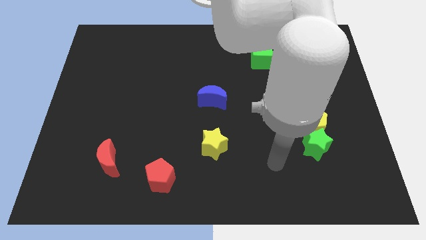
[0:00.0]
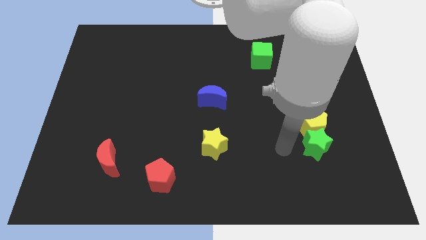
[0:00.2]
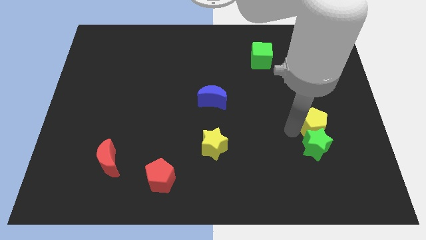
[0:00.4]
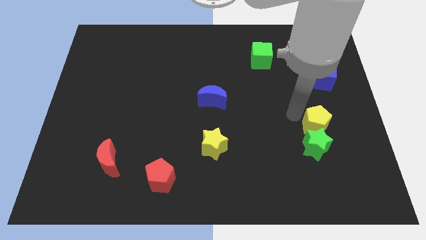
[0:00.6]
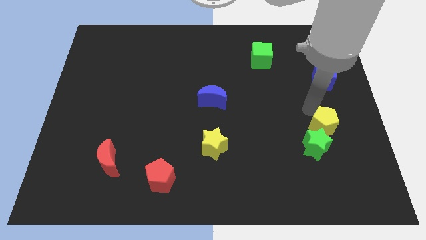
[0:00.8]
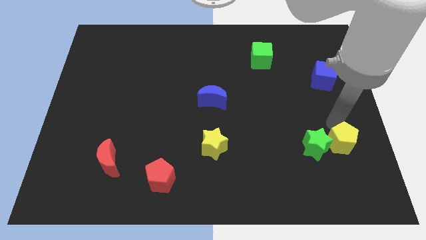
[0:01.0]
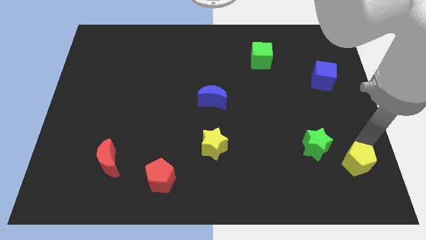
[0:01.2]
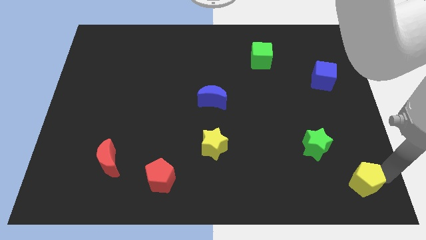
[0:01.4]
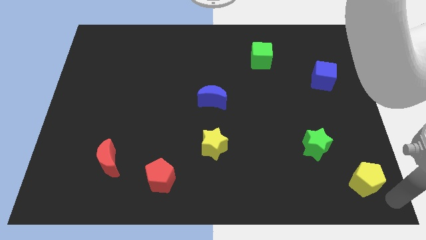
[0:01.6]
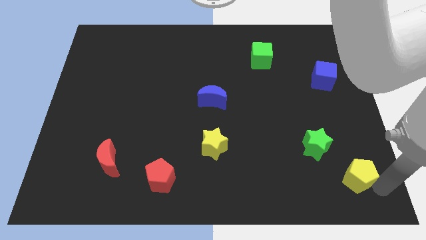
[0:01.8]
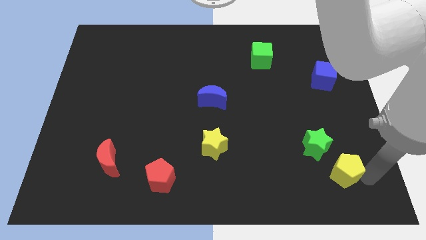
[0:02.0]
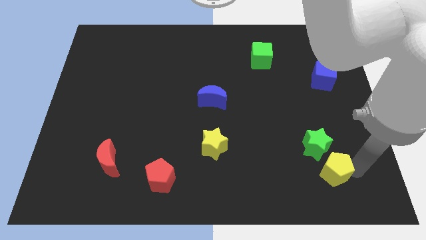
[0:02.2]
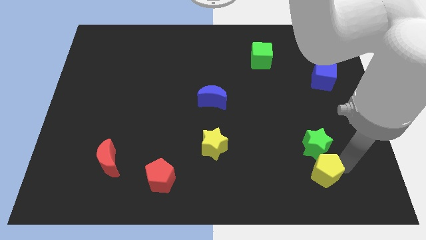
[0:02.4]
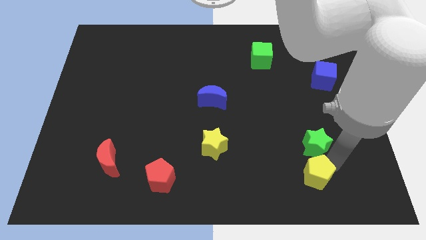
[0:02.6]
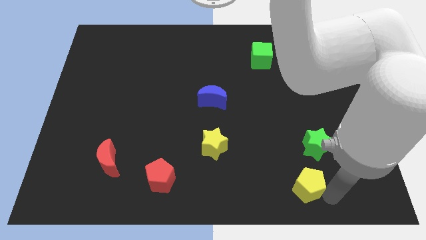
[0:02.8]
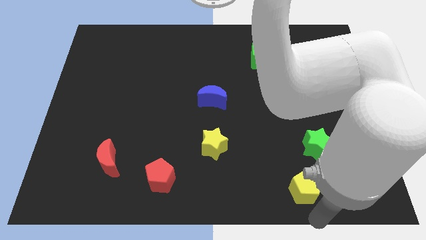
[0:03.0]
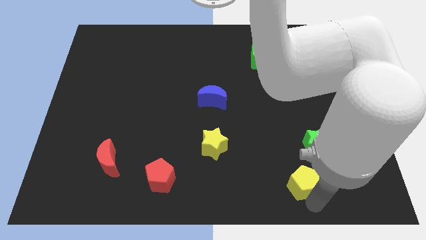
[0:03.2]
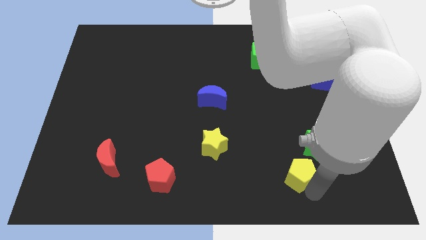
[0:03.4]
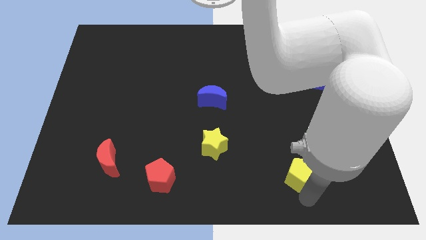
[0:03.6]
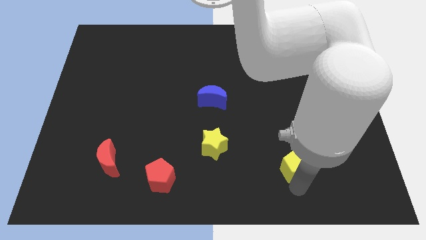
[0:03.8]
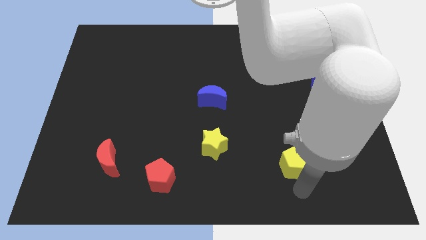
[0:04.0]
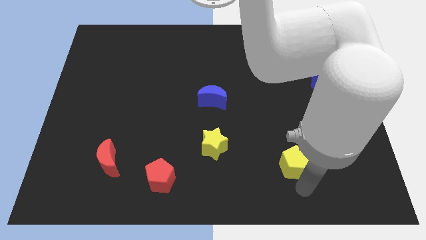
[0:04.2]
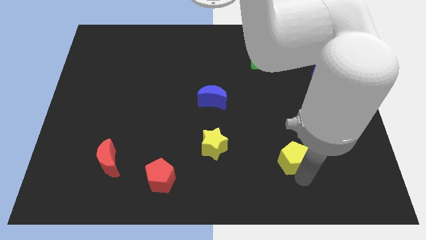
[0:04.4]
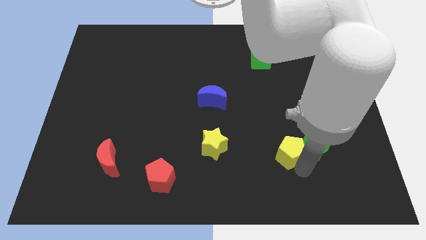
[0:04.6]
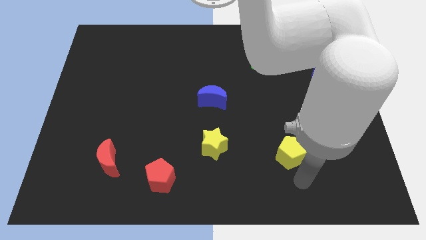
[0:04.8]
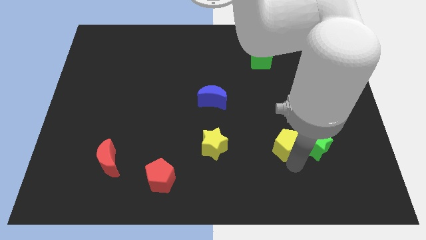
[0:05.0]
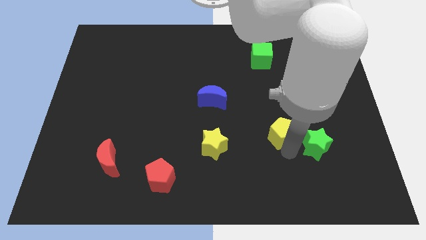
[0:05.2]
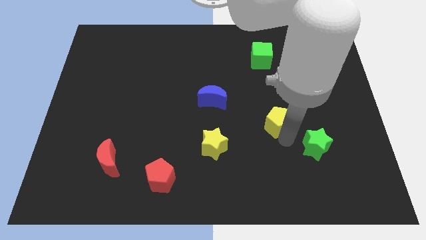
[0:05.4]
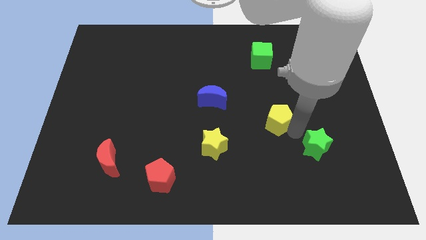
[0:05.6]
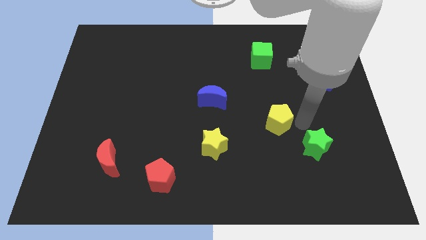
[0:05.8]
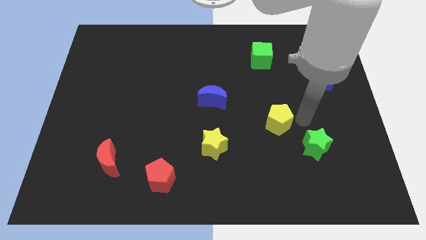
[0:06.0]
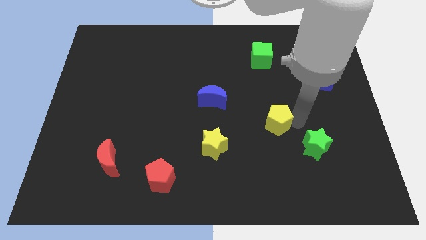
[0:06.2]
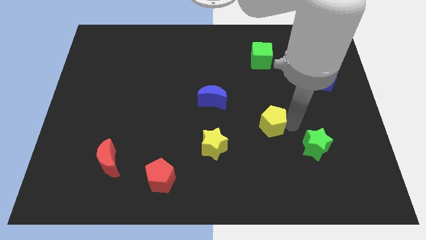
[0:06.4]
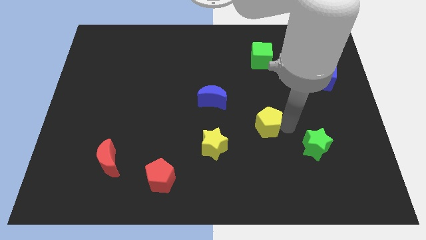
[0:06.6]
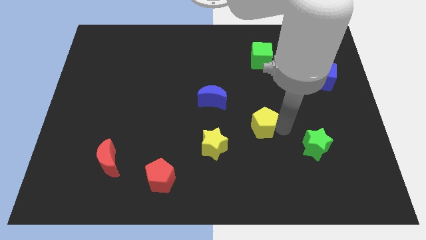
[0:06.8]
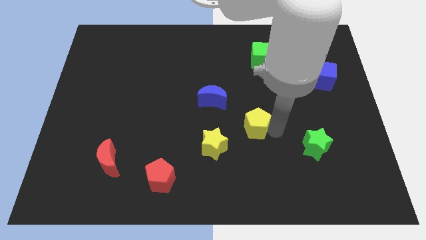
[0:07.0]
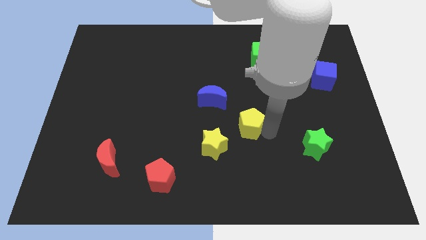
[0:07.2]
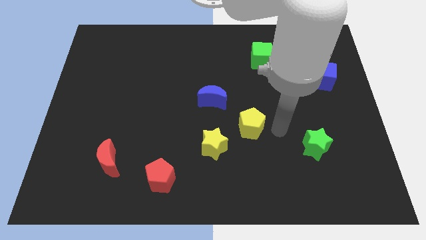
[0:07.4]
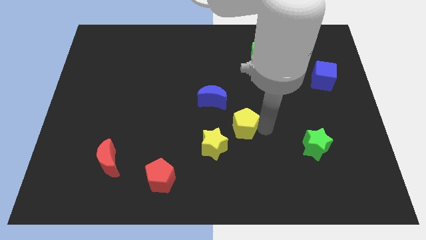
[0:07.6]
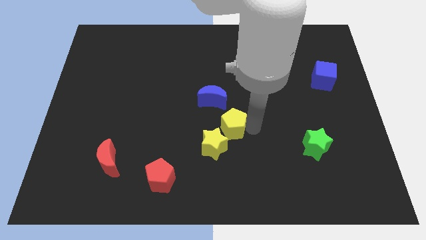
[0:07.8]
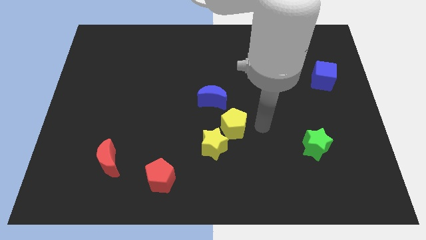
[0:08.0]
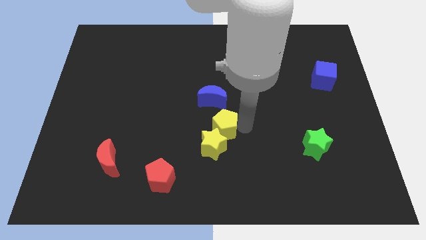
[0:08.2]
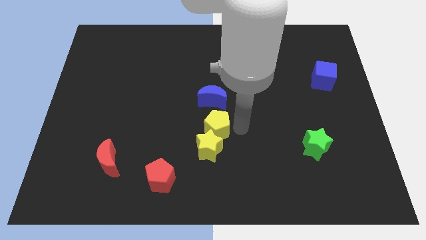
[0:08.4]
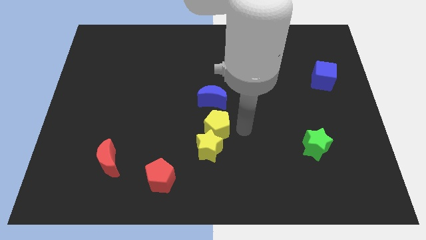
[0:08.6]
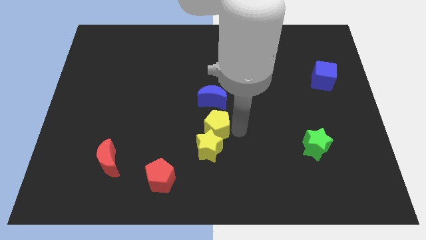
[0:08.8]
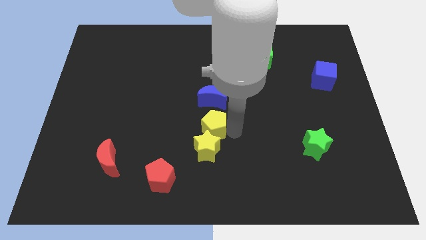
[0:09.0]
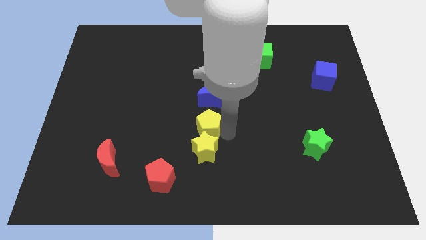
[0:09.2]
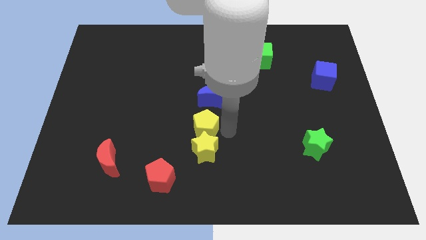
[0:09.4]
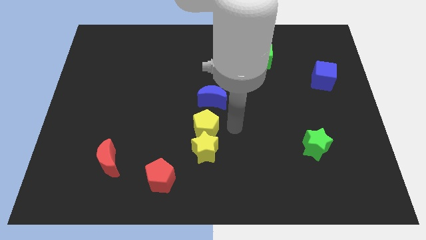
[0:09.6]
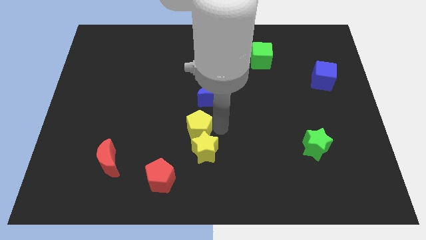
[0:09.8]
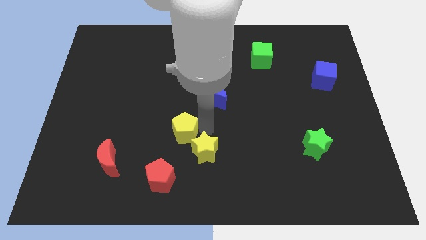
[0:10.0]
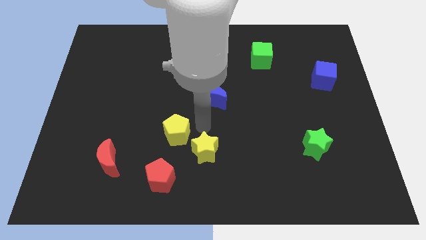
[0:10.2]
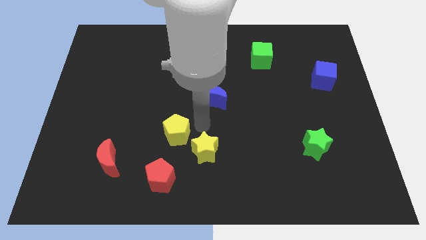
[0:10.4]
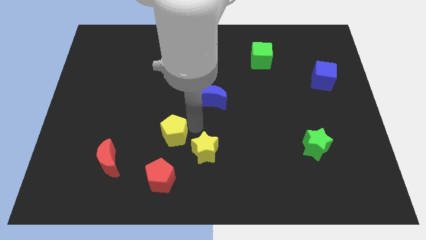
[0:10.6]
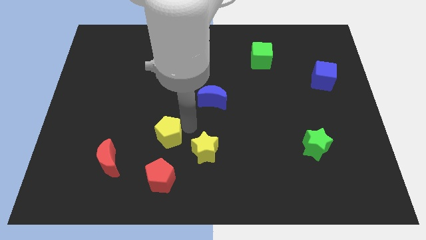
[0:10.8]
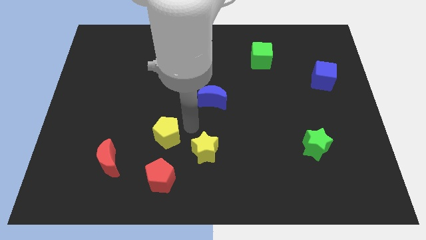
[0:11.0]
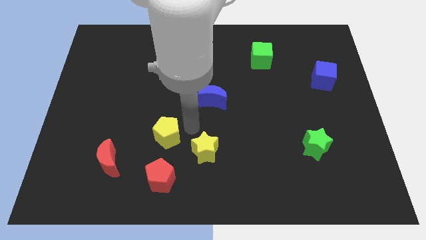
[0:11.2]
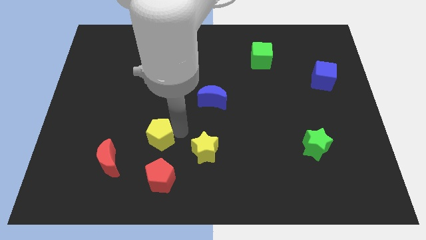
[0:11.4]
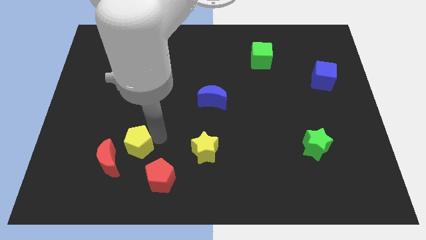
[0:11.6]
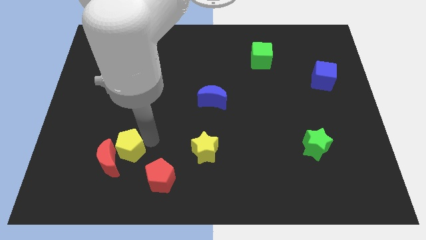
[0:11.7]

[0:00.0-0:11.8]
push the yellow pentagon to the red moon

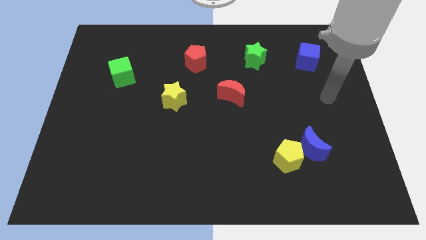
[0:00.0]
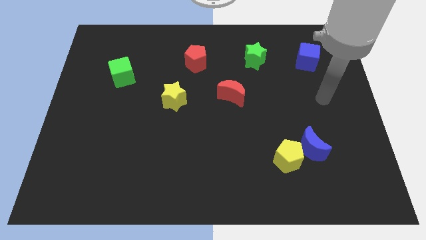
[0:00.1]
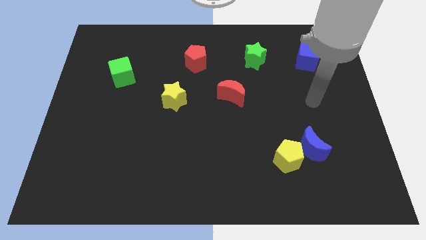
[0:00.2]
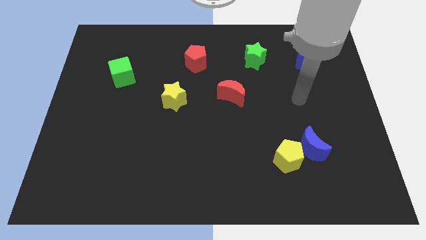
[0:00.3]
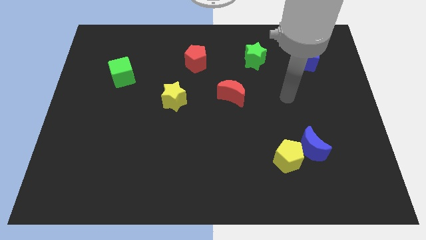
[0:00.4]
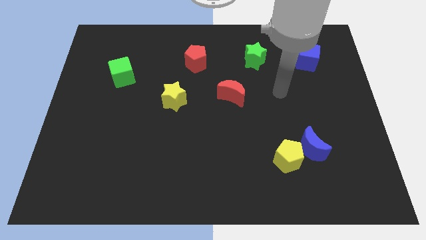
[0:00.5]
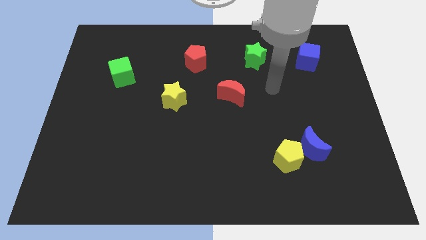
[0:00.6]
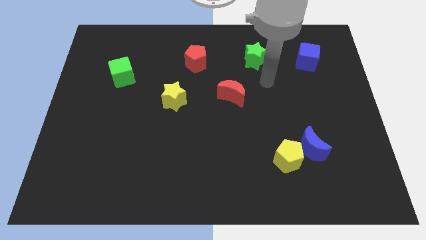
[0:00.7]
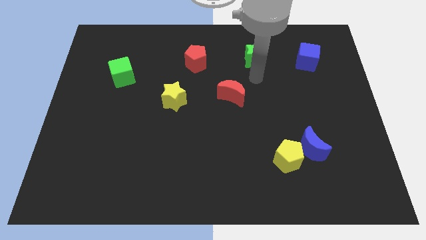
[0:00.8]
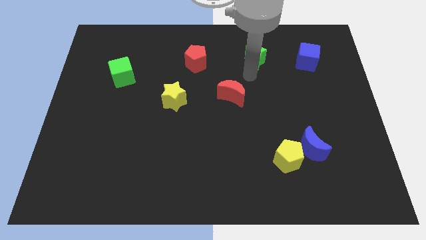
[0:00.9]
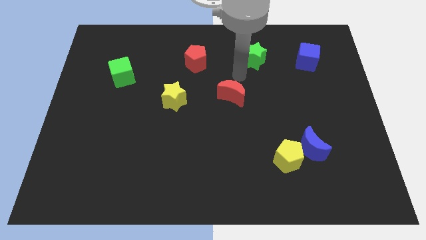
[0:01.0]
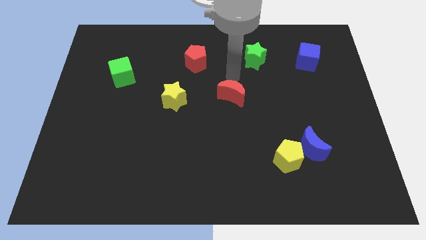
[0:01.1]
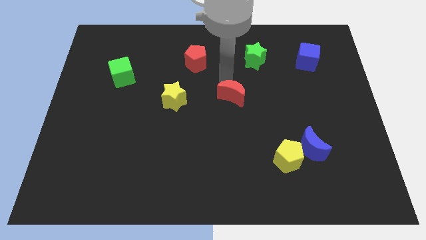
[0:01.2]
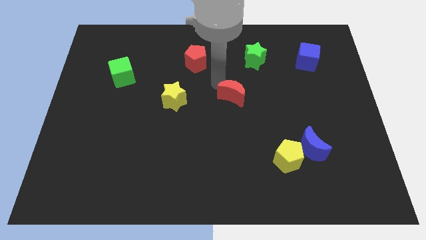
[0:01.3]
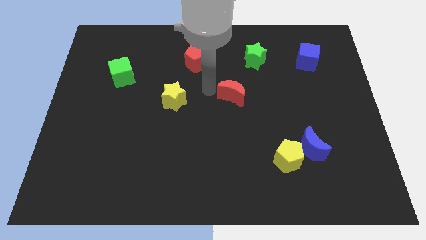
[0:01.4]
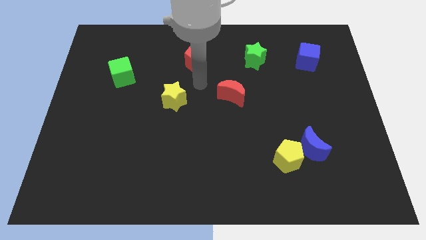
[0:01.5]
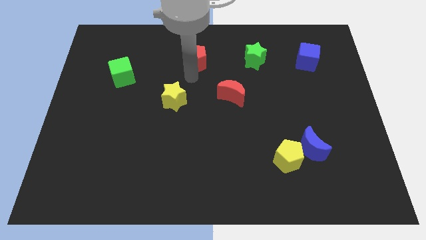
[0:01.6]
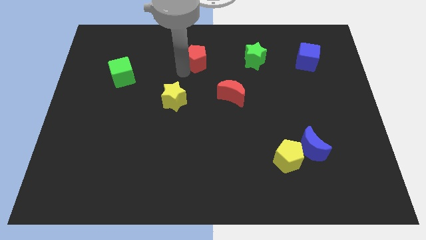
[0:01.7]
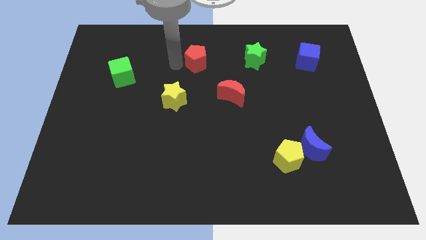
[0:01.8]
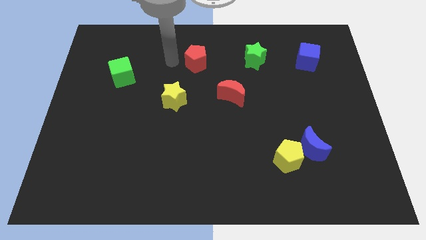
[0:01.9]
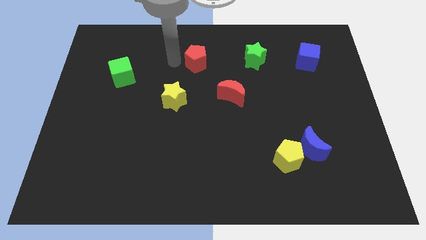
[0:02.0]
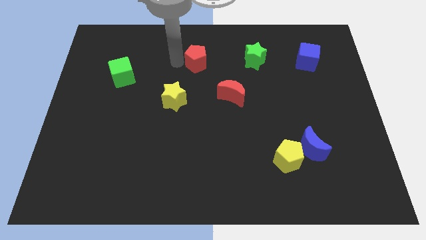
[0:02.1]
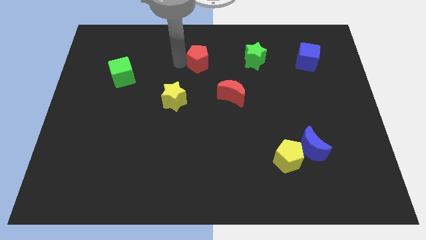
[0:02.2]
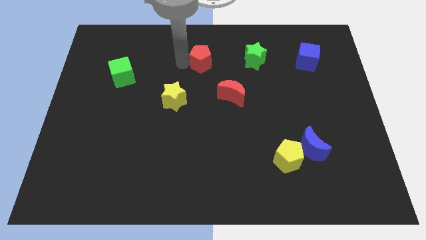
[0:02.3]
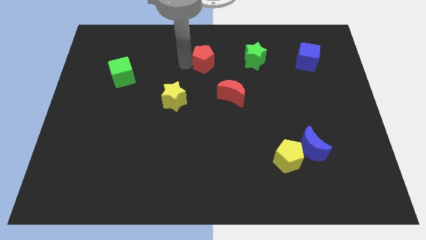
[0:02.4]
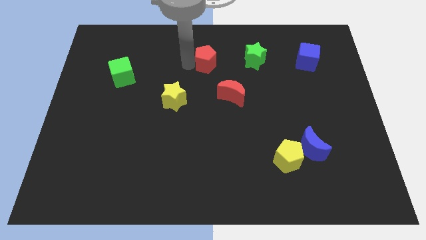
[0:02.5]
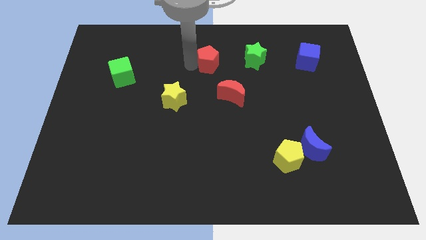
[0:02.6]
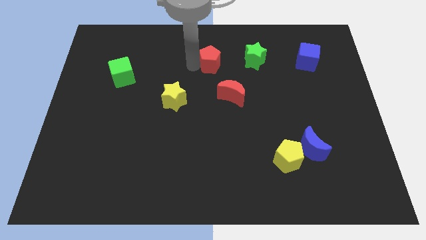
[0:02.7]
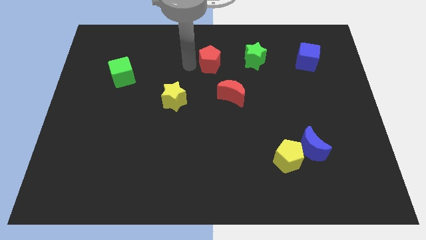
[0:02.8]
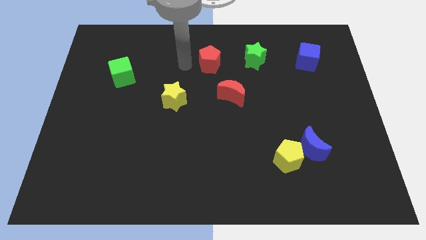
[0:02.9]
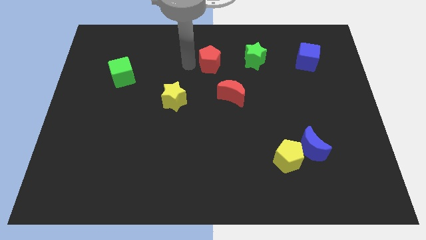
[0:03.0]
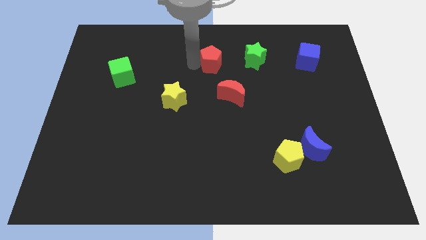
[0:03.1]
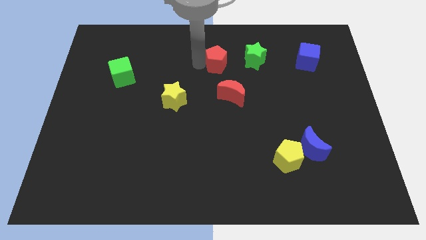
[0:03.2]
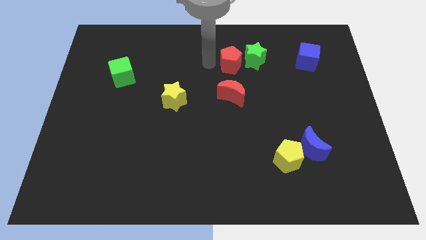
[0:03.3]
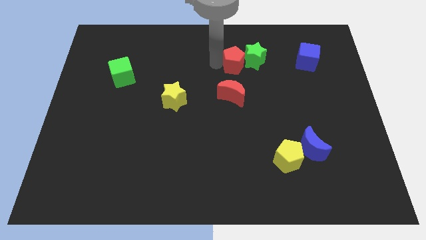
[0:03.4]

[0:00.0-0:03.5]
move the red pentagon next to the green star
